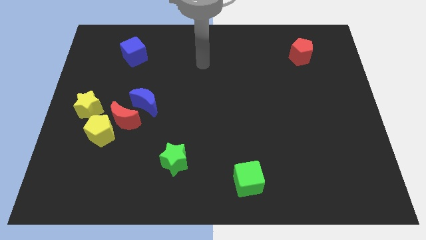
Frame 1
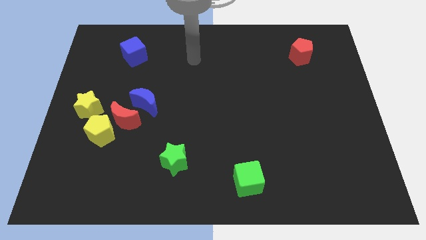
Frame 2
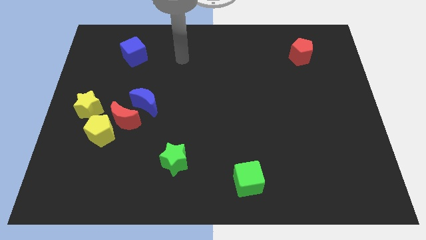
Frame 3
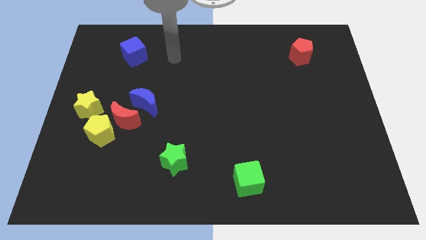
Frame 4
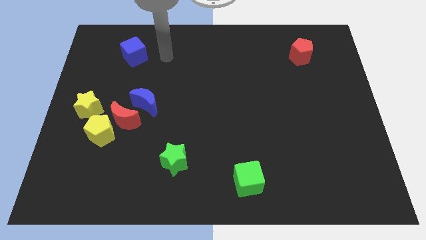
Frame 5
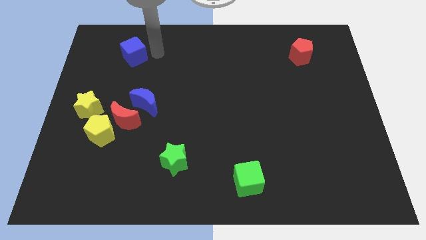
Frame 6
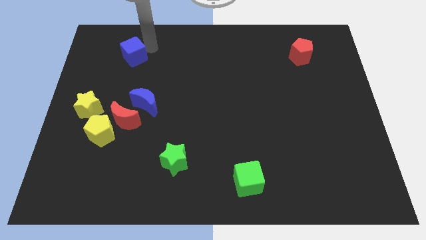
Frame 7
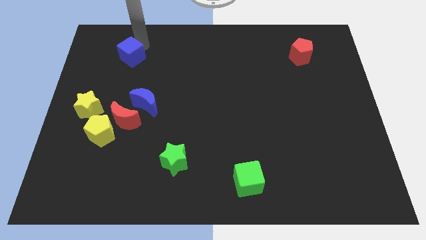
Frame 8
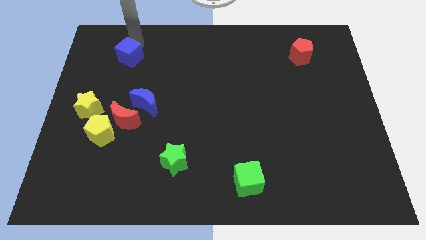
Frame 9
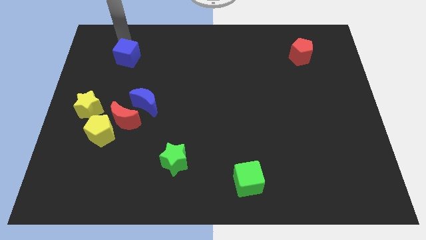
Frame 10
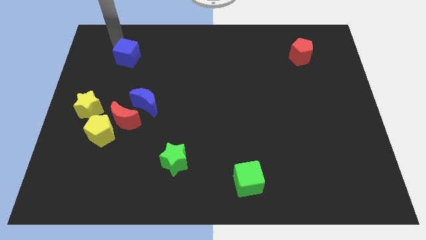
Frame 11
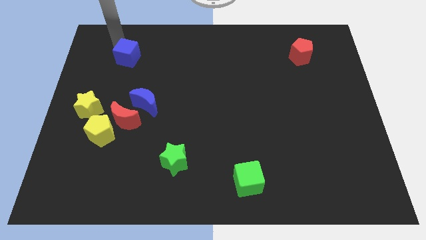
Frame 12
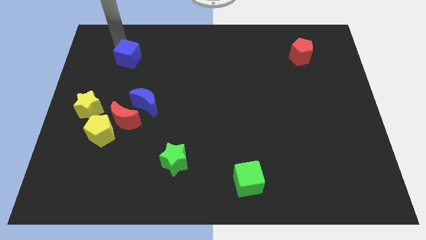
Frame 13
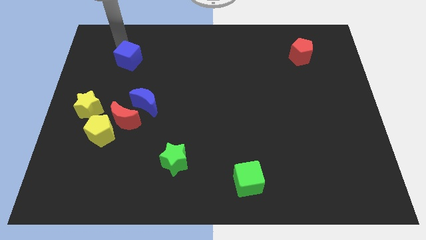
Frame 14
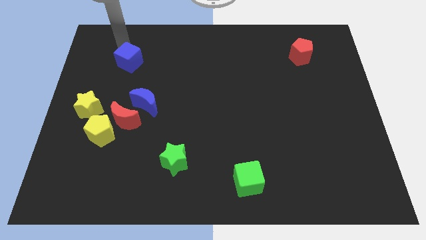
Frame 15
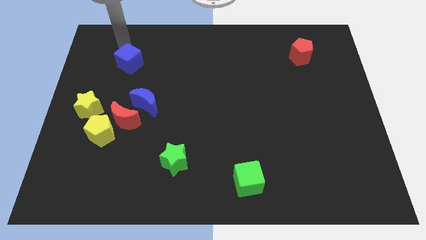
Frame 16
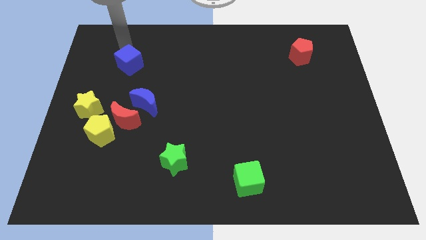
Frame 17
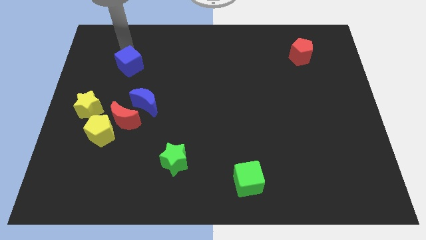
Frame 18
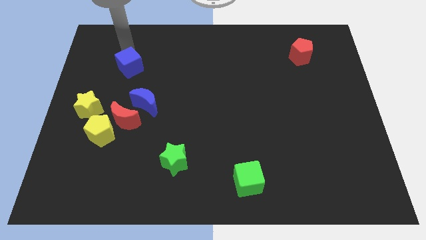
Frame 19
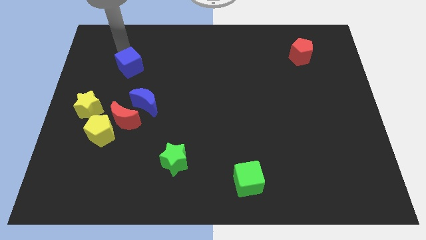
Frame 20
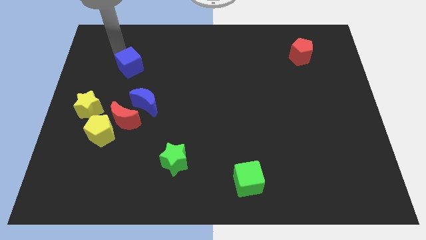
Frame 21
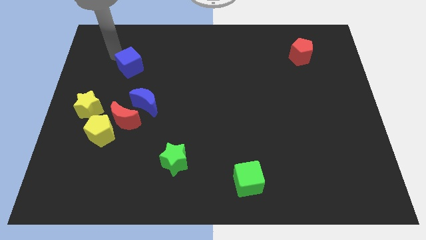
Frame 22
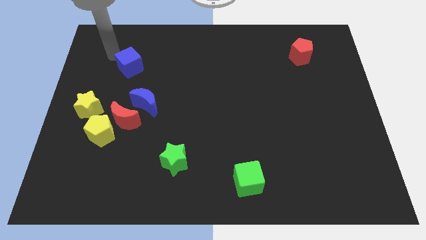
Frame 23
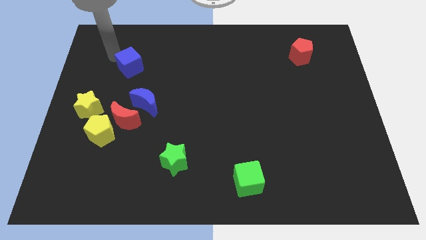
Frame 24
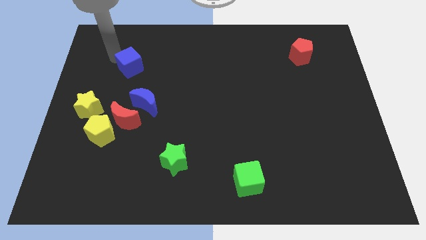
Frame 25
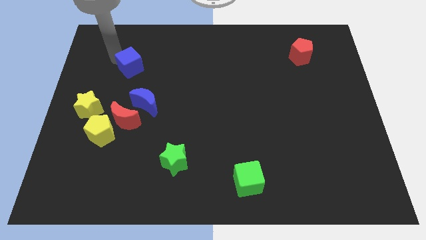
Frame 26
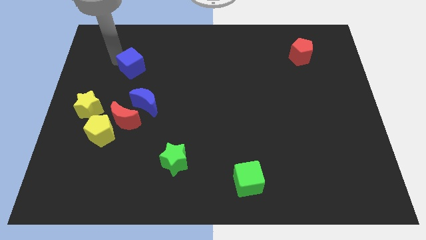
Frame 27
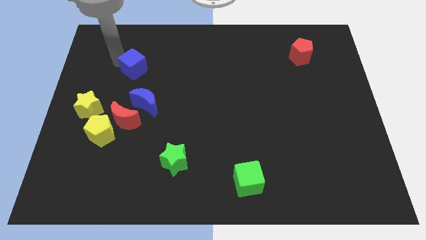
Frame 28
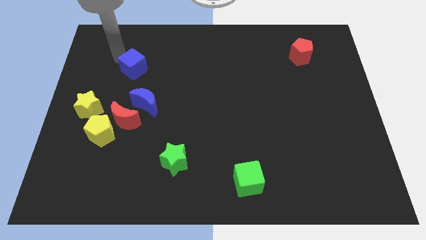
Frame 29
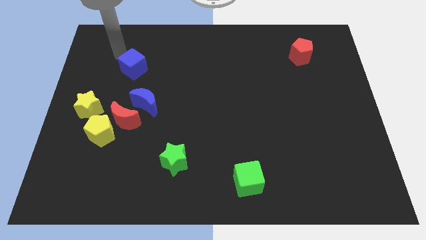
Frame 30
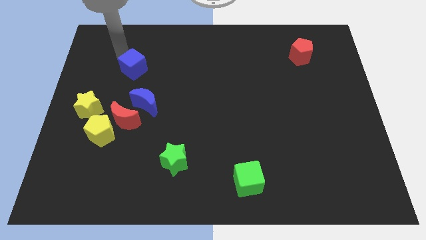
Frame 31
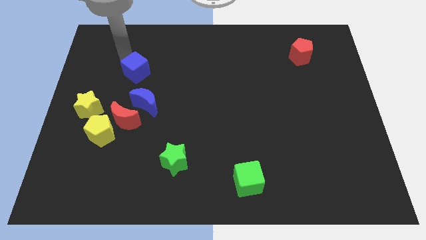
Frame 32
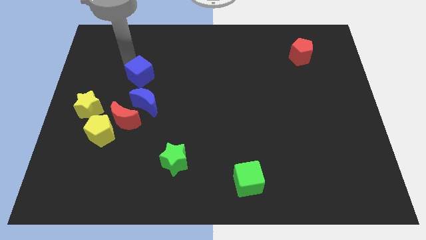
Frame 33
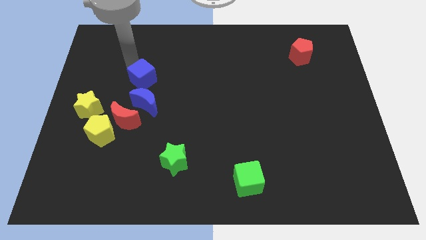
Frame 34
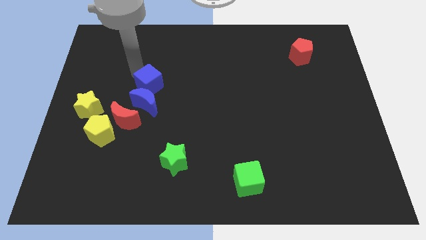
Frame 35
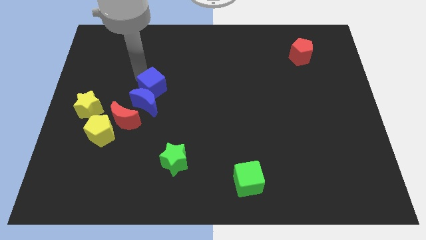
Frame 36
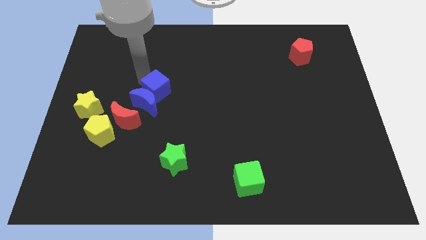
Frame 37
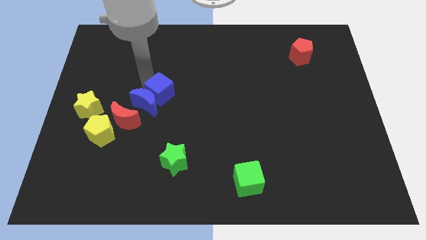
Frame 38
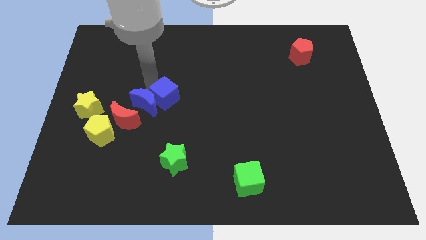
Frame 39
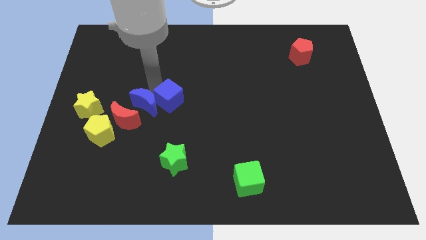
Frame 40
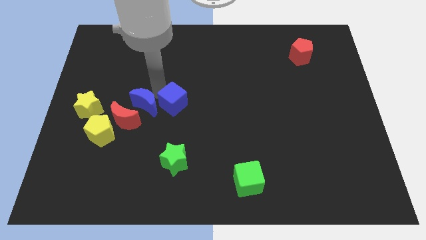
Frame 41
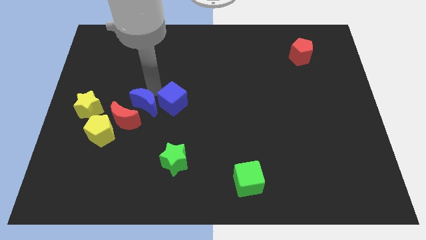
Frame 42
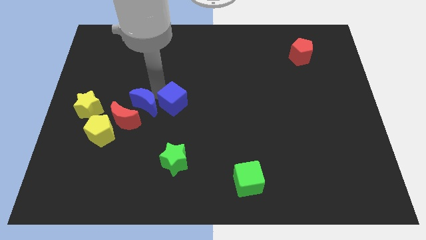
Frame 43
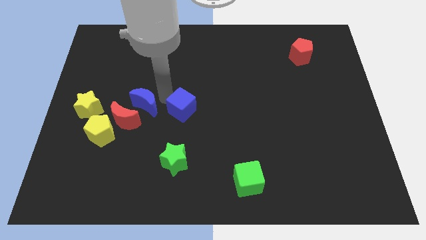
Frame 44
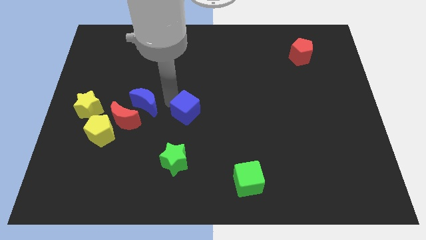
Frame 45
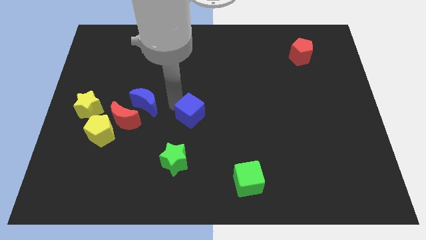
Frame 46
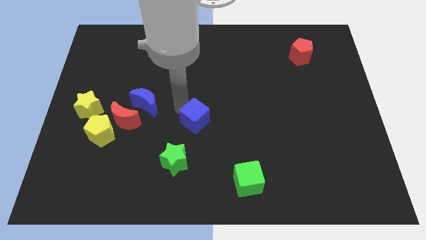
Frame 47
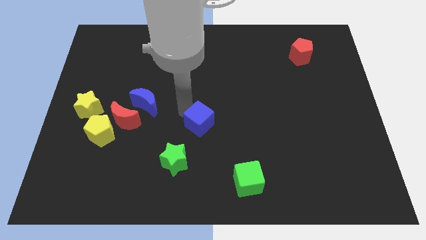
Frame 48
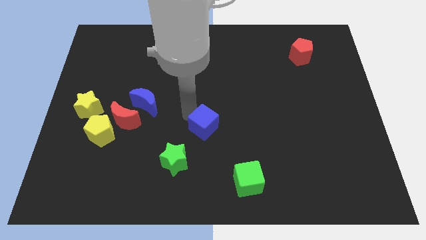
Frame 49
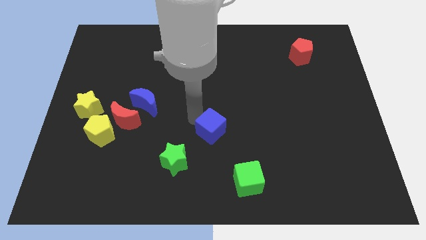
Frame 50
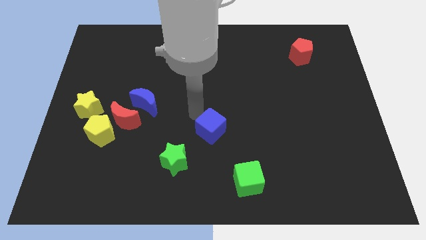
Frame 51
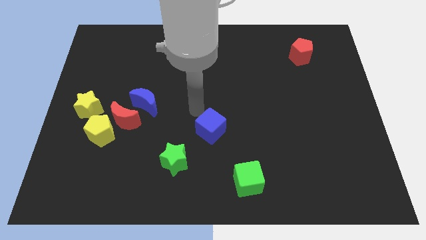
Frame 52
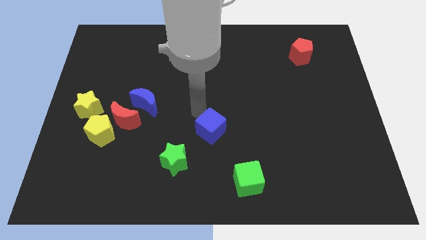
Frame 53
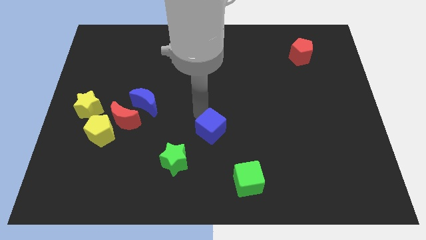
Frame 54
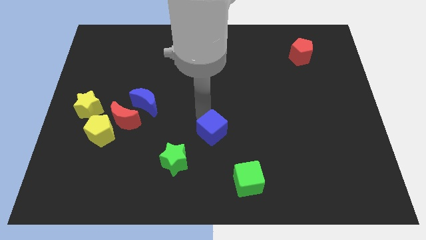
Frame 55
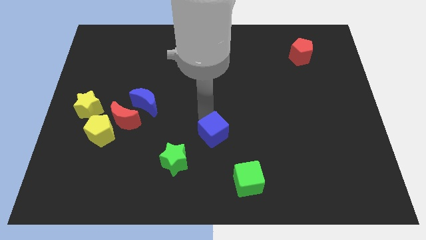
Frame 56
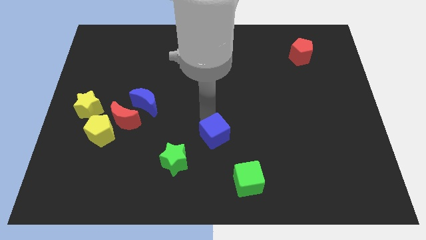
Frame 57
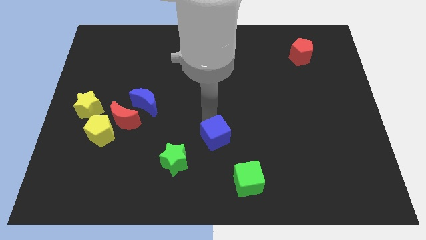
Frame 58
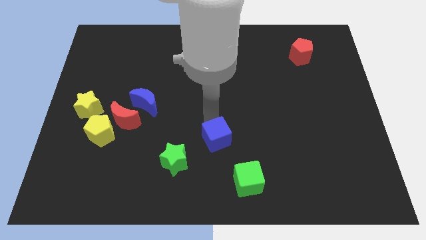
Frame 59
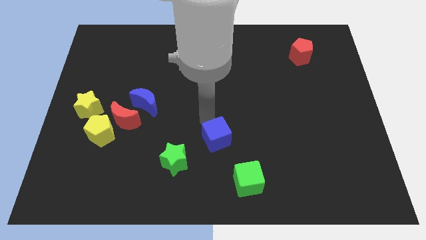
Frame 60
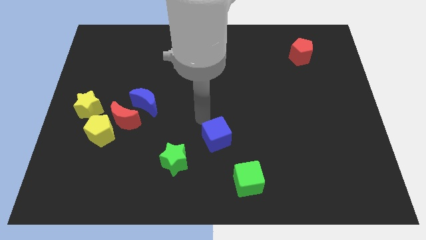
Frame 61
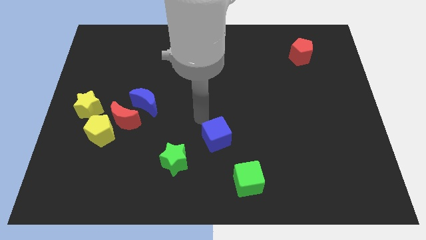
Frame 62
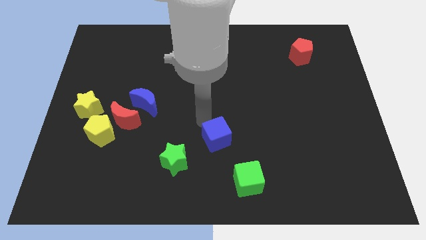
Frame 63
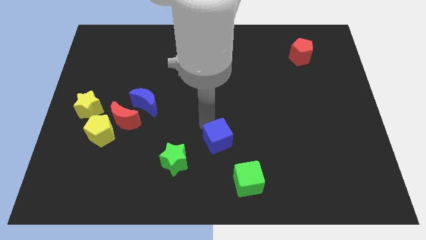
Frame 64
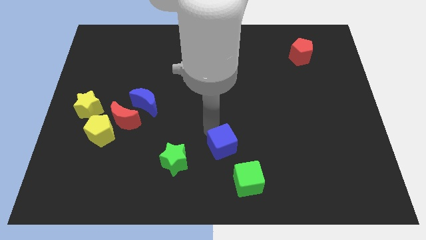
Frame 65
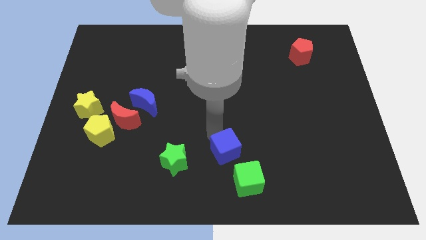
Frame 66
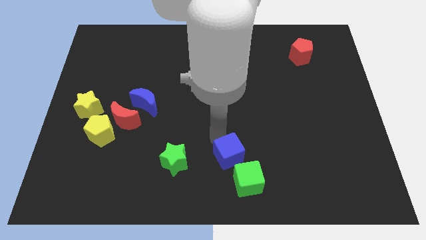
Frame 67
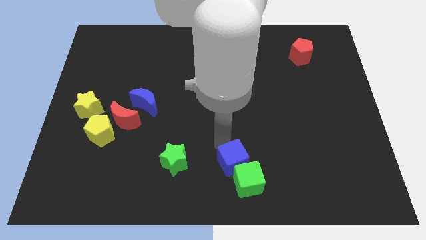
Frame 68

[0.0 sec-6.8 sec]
push the blue cube to the green cube

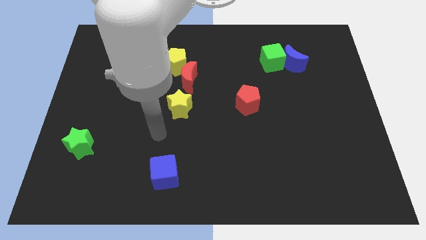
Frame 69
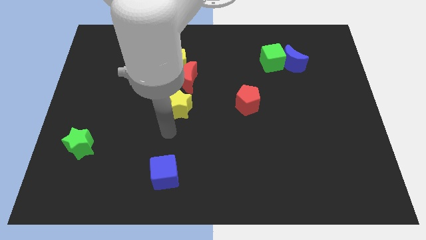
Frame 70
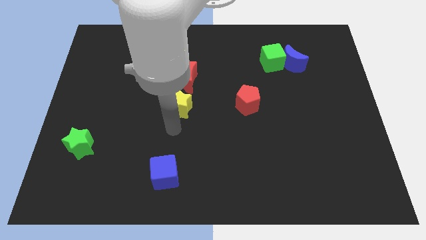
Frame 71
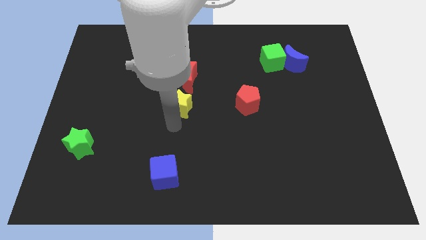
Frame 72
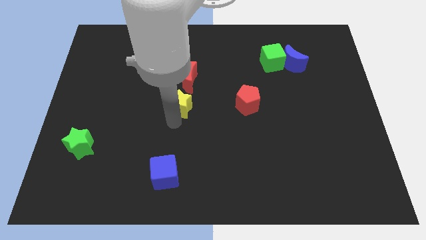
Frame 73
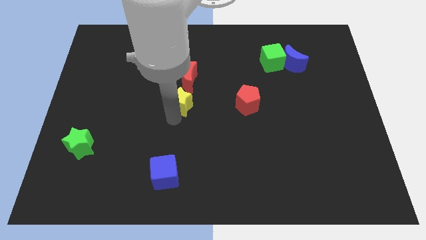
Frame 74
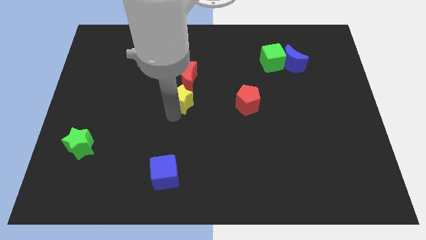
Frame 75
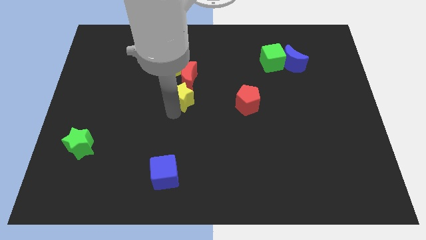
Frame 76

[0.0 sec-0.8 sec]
put the yellow star next to the red moon
